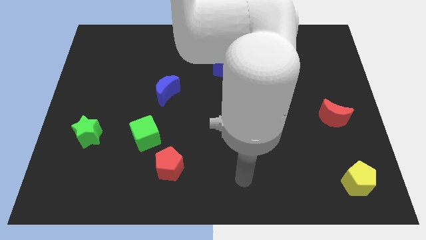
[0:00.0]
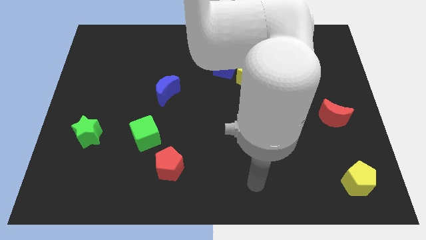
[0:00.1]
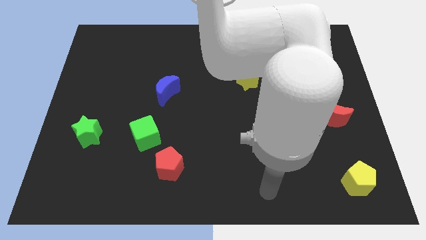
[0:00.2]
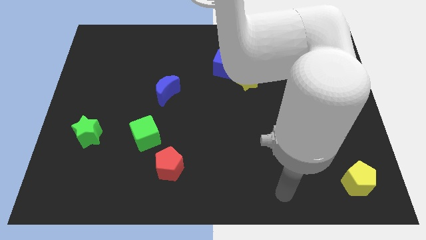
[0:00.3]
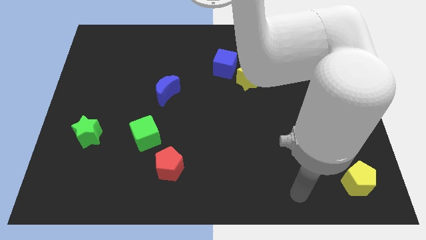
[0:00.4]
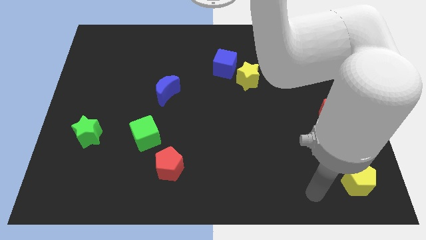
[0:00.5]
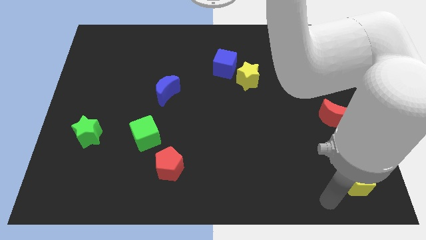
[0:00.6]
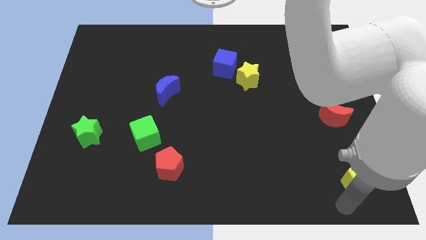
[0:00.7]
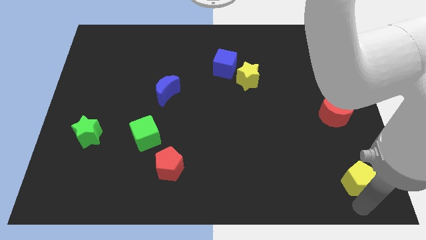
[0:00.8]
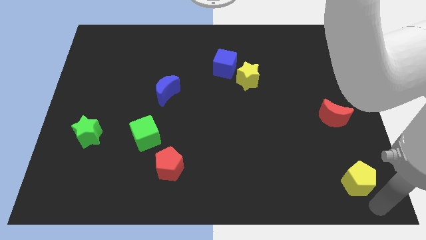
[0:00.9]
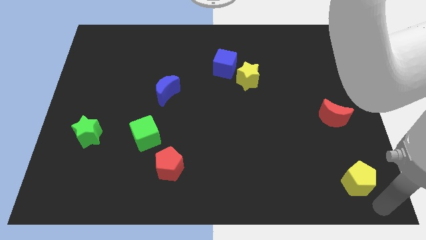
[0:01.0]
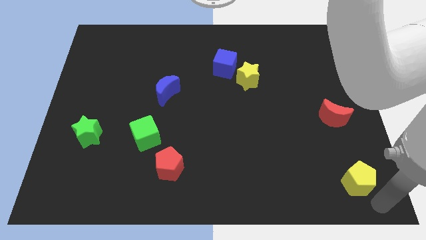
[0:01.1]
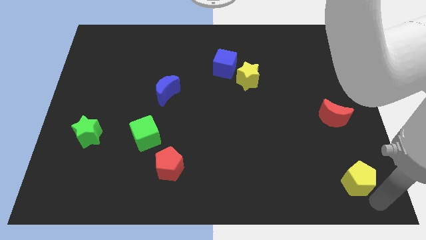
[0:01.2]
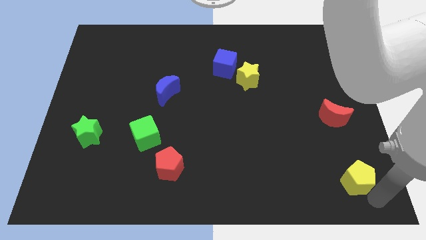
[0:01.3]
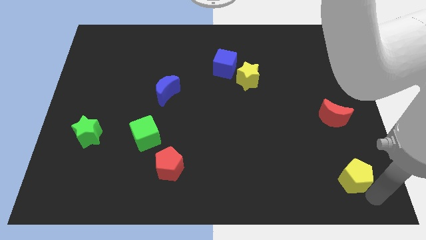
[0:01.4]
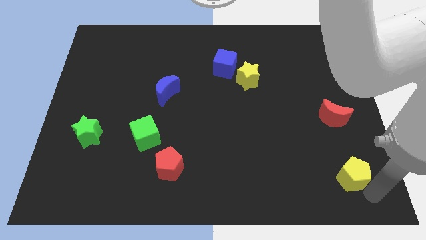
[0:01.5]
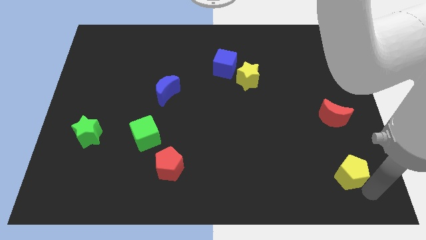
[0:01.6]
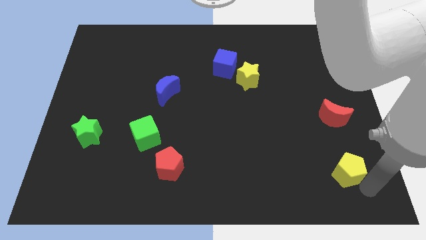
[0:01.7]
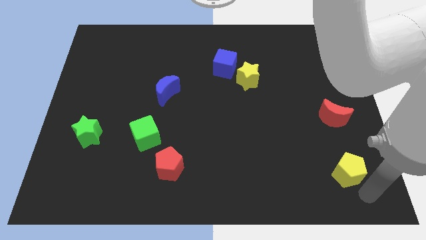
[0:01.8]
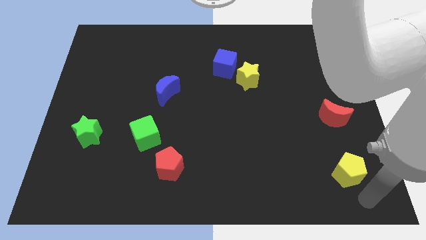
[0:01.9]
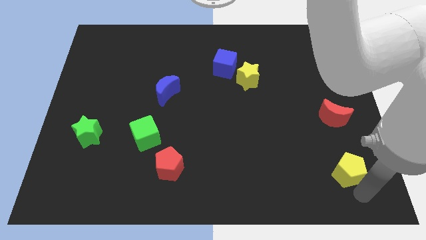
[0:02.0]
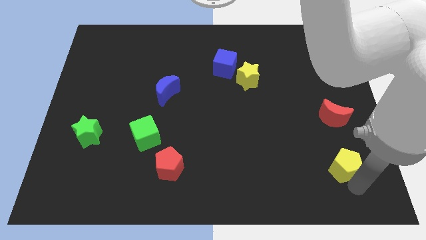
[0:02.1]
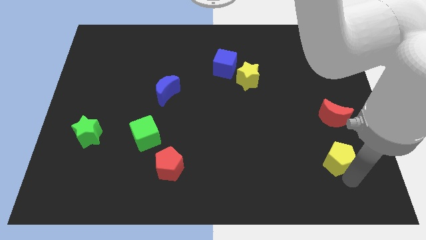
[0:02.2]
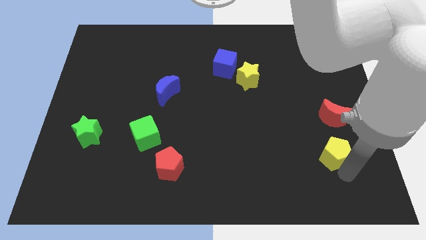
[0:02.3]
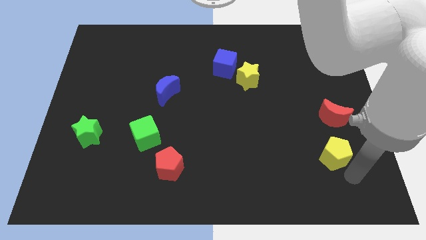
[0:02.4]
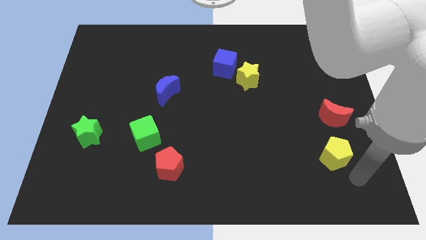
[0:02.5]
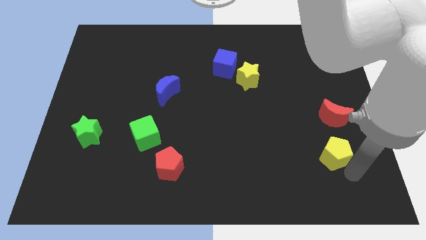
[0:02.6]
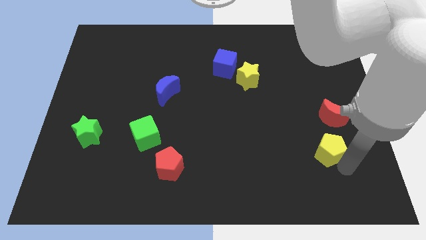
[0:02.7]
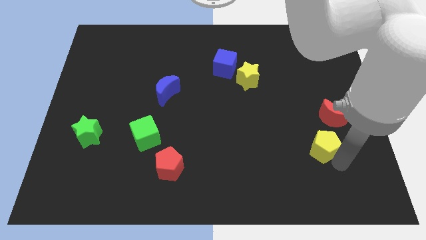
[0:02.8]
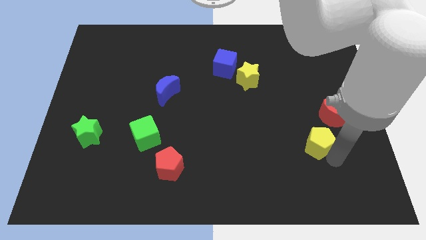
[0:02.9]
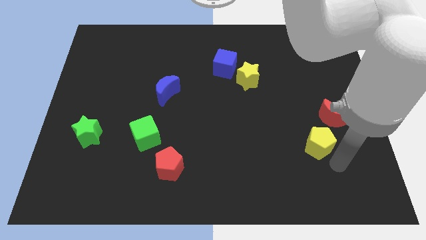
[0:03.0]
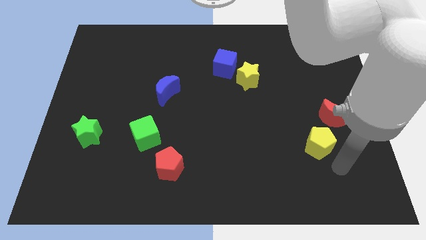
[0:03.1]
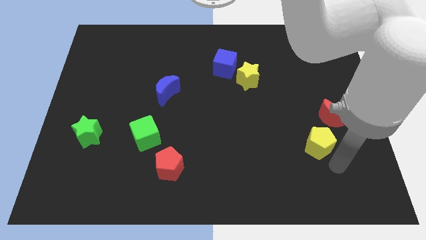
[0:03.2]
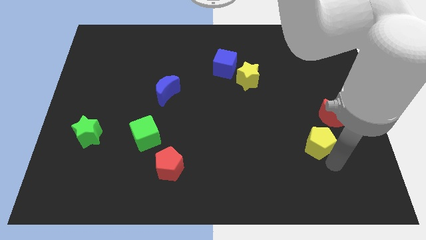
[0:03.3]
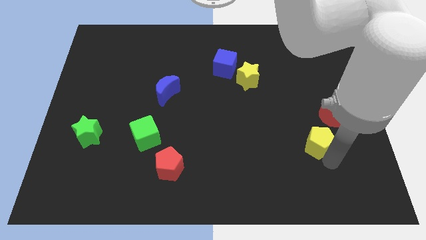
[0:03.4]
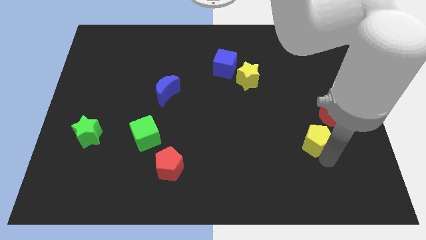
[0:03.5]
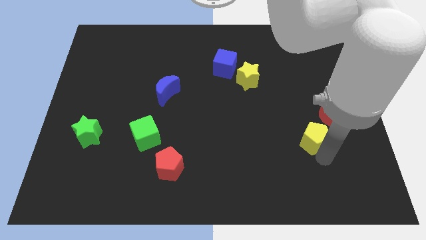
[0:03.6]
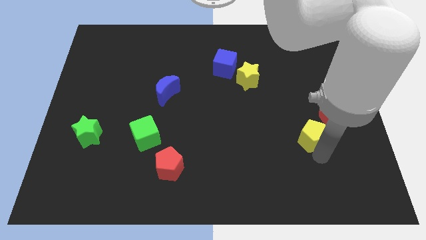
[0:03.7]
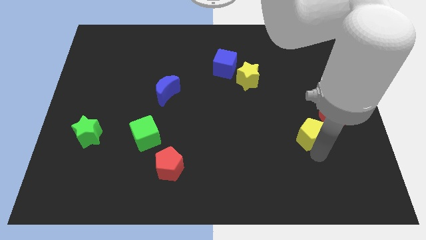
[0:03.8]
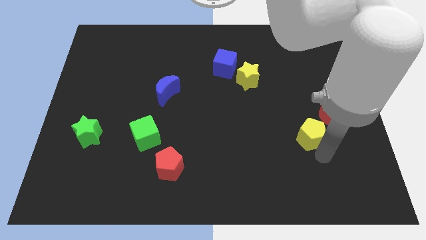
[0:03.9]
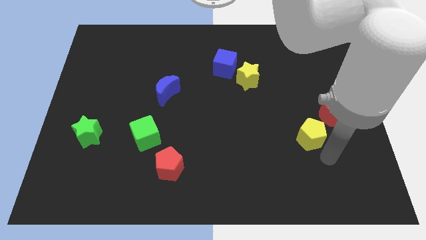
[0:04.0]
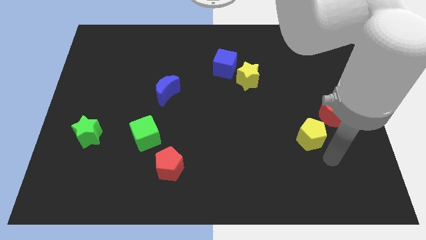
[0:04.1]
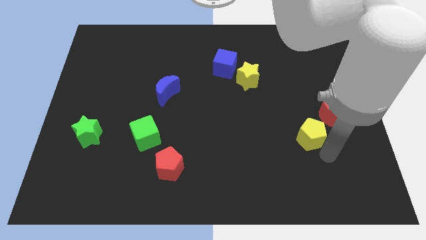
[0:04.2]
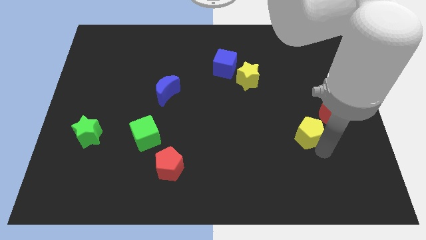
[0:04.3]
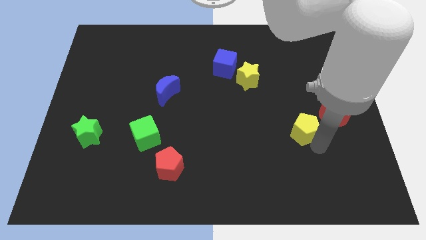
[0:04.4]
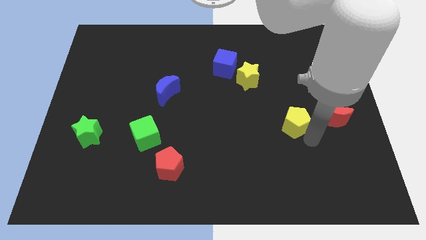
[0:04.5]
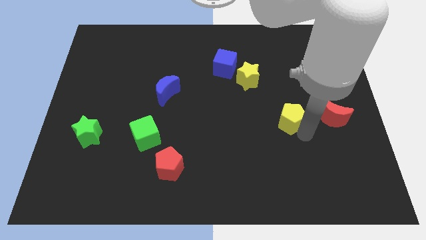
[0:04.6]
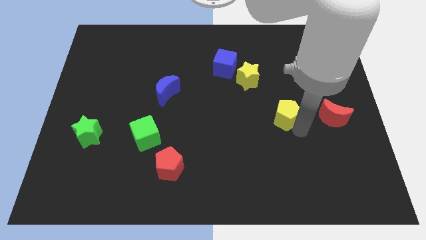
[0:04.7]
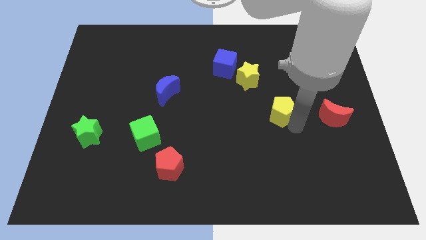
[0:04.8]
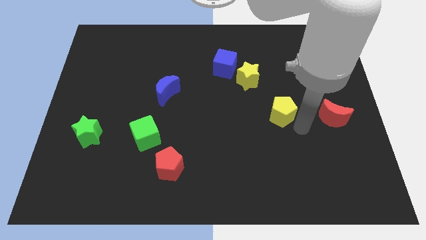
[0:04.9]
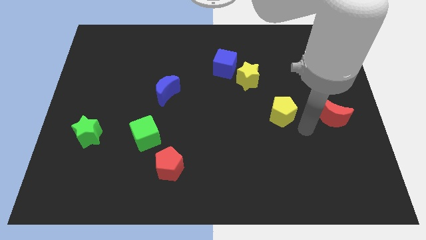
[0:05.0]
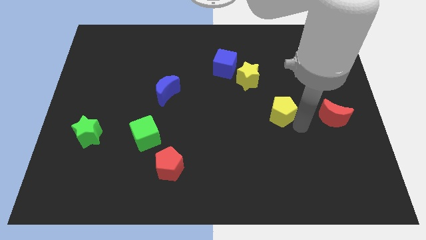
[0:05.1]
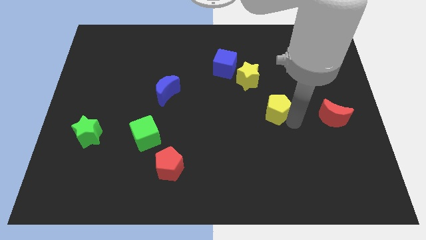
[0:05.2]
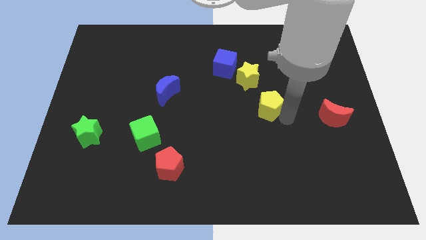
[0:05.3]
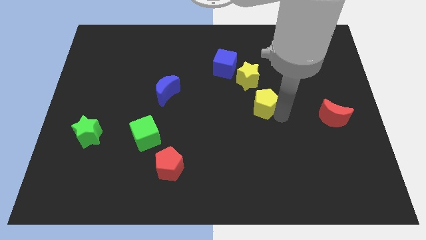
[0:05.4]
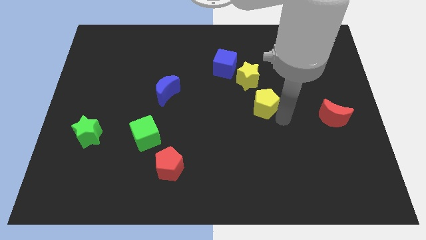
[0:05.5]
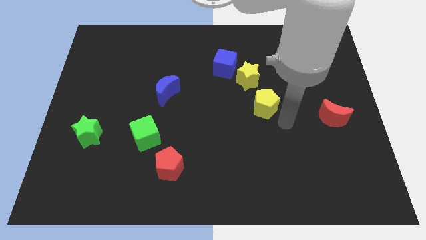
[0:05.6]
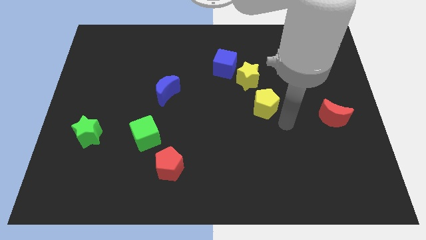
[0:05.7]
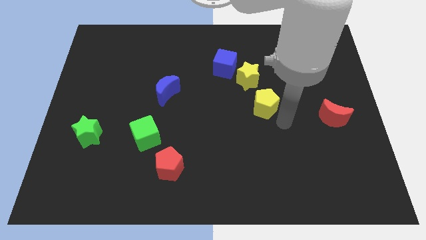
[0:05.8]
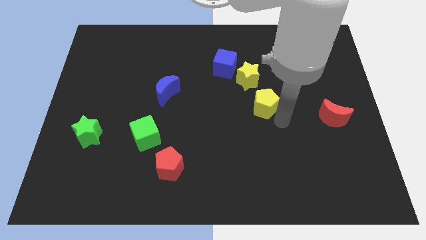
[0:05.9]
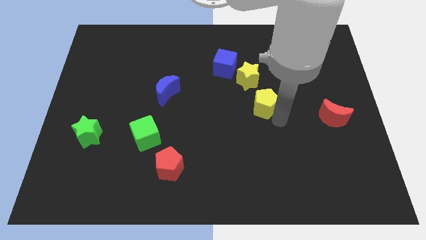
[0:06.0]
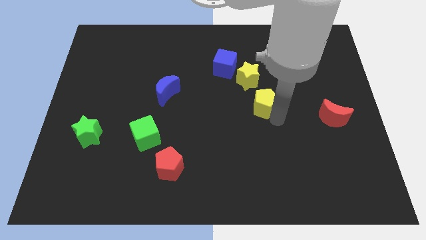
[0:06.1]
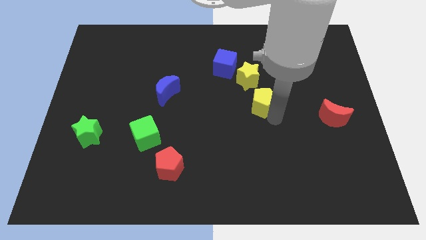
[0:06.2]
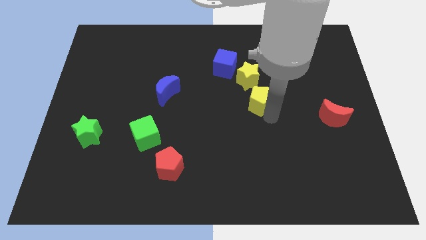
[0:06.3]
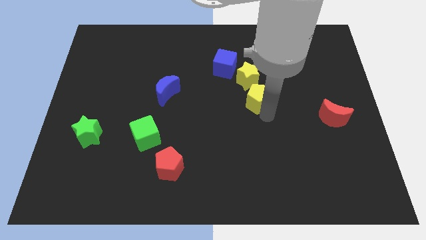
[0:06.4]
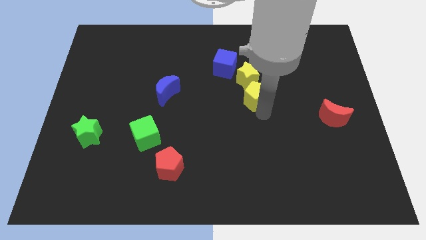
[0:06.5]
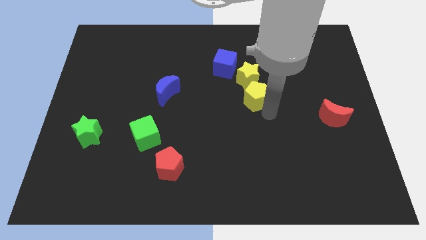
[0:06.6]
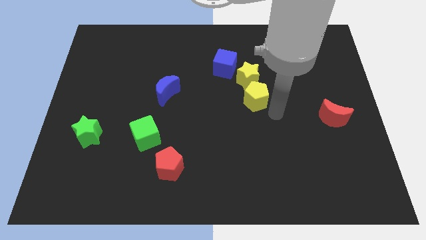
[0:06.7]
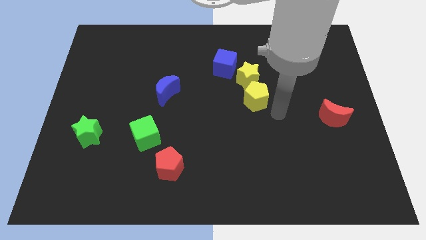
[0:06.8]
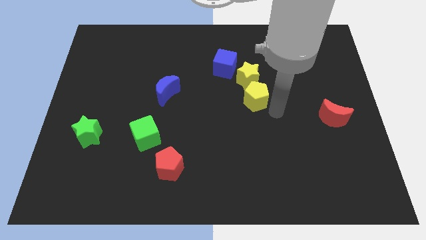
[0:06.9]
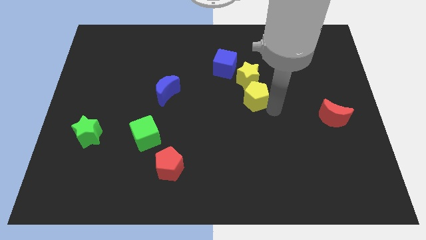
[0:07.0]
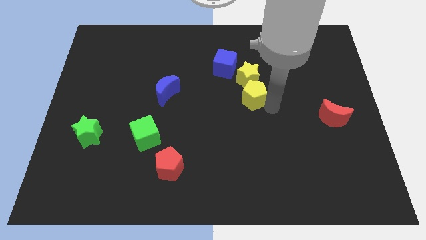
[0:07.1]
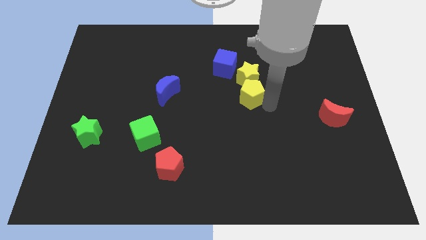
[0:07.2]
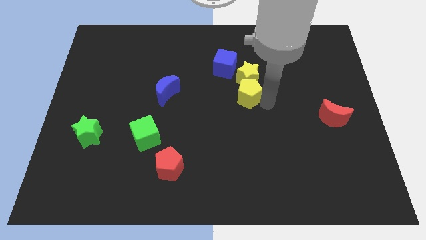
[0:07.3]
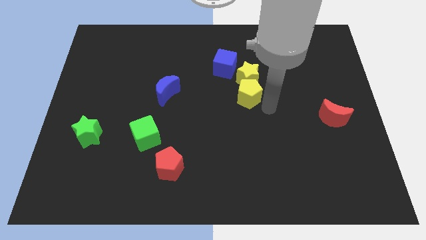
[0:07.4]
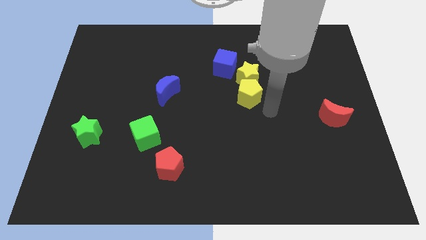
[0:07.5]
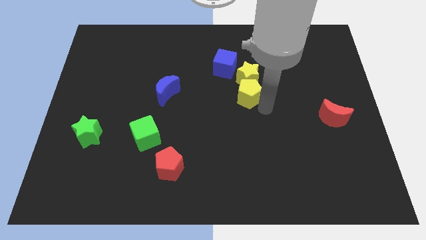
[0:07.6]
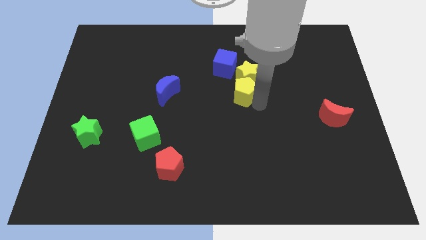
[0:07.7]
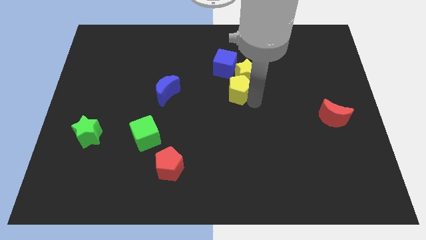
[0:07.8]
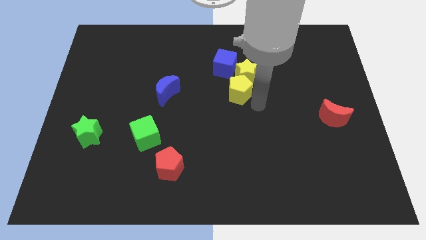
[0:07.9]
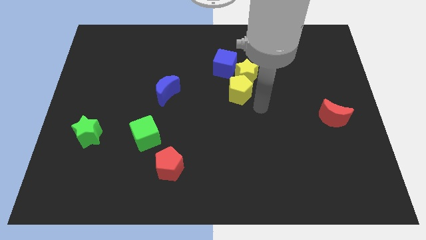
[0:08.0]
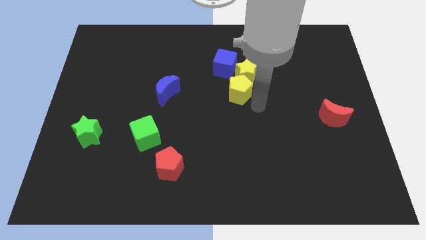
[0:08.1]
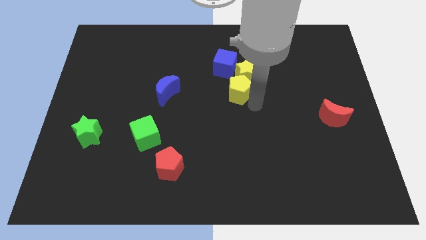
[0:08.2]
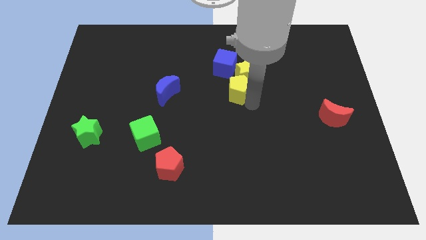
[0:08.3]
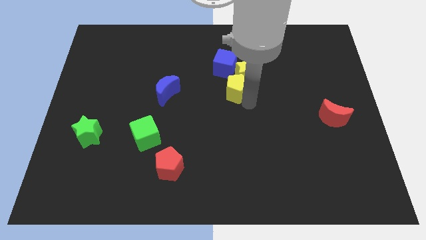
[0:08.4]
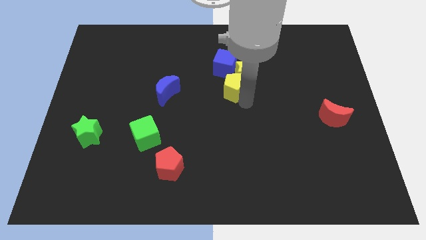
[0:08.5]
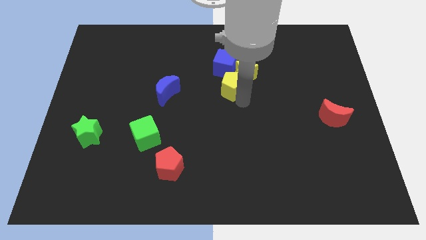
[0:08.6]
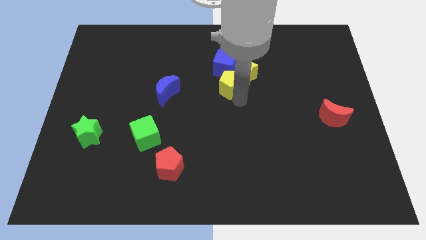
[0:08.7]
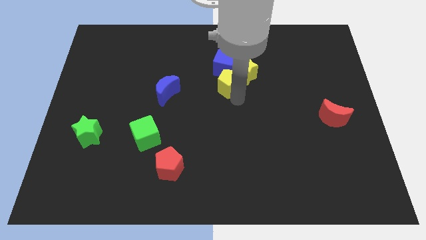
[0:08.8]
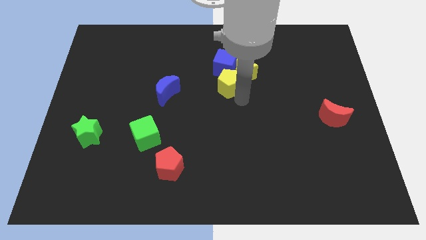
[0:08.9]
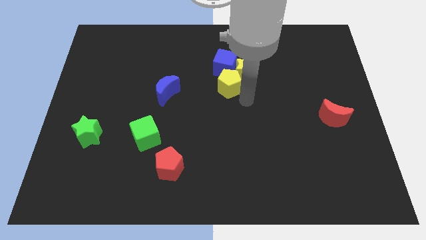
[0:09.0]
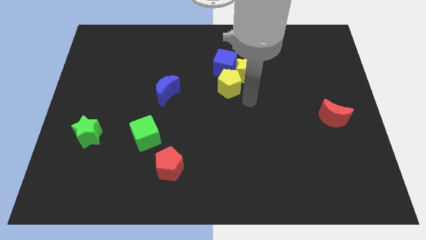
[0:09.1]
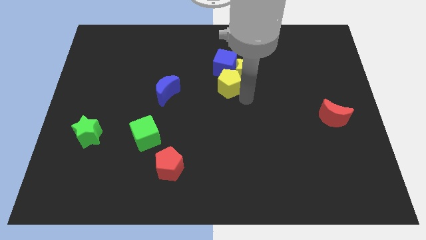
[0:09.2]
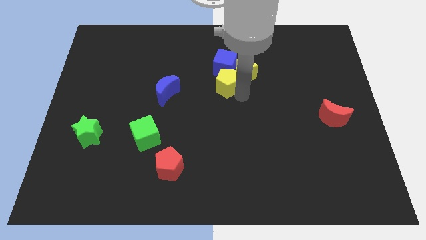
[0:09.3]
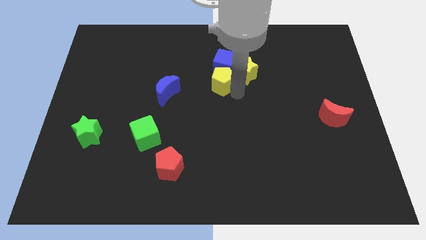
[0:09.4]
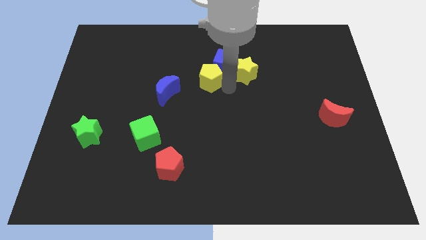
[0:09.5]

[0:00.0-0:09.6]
slide the yellow pentagon just left of the blue cube
